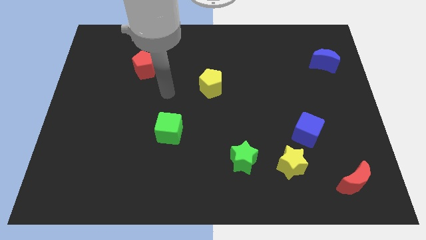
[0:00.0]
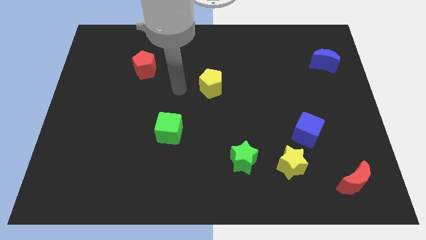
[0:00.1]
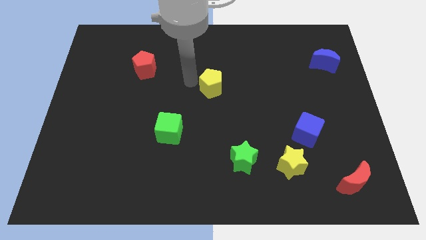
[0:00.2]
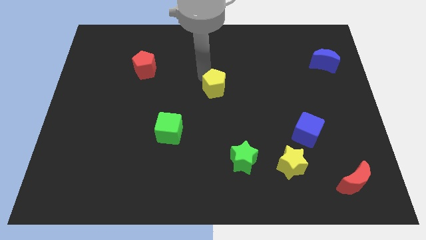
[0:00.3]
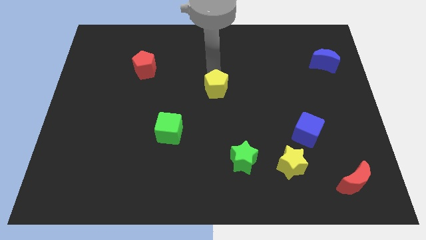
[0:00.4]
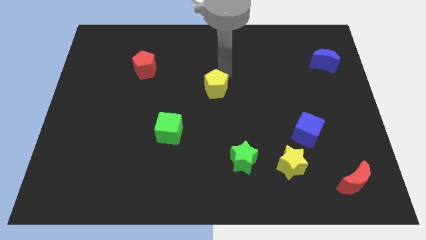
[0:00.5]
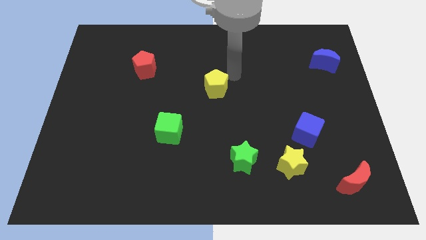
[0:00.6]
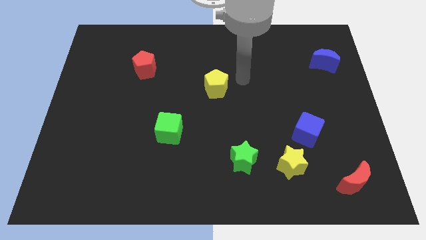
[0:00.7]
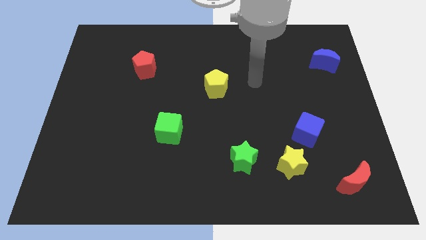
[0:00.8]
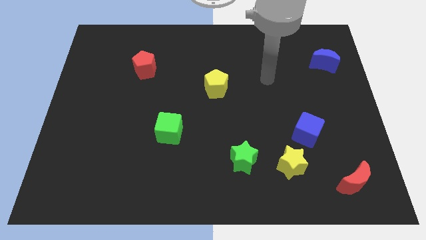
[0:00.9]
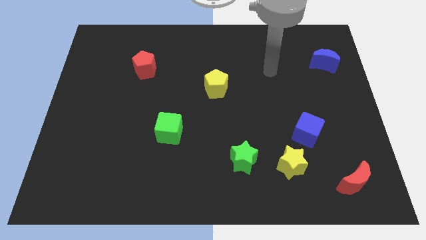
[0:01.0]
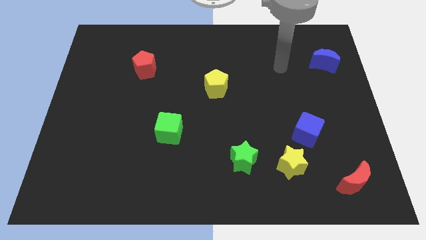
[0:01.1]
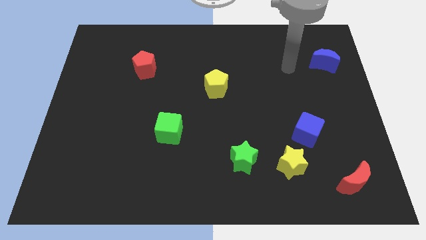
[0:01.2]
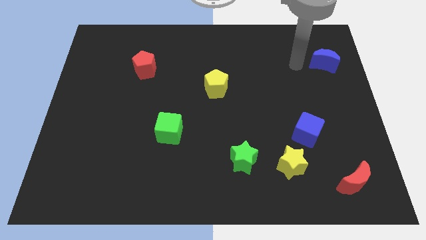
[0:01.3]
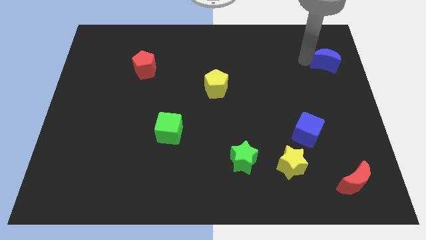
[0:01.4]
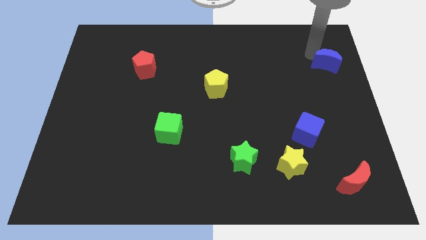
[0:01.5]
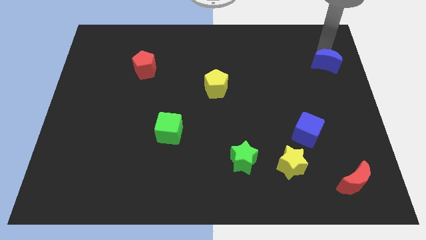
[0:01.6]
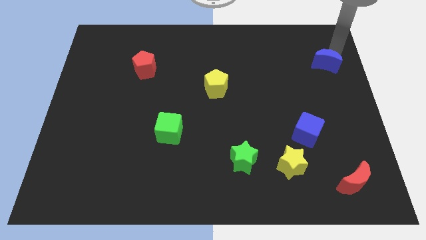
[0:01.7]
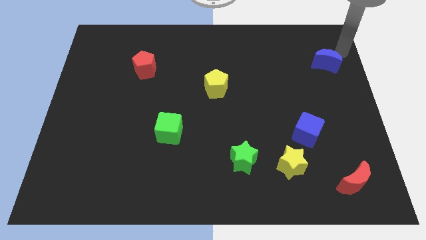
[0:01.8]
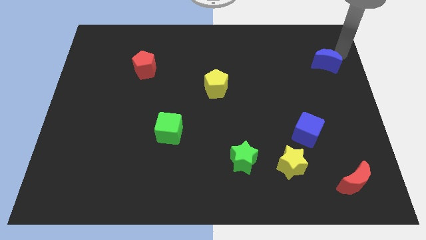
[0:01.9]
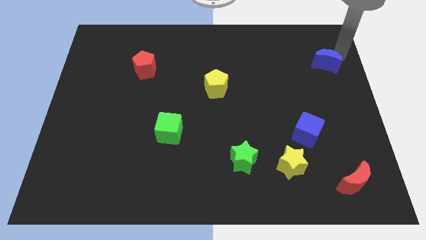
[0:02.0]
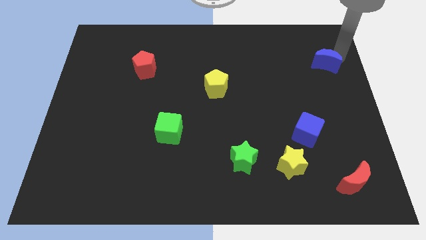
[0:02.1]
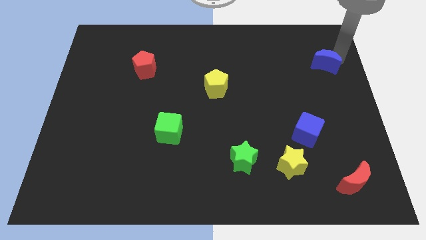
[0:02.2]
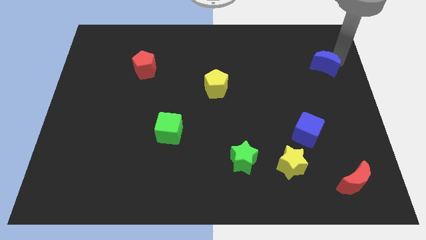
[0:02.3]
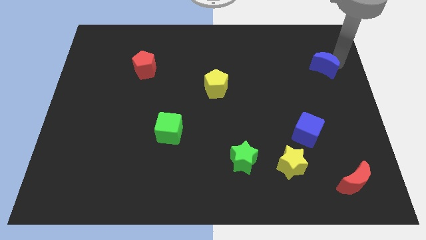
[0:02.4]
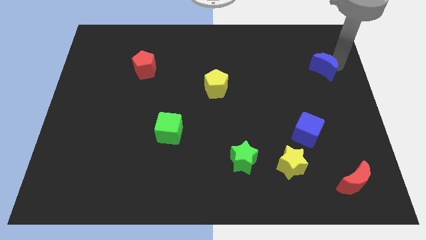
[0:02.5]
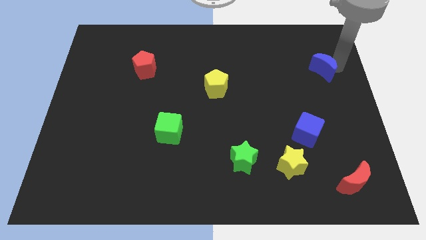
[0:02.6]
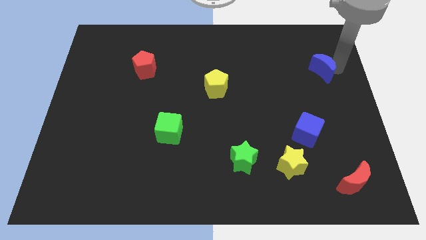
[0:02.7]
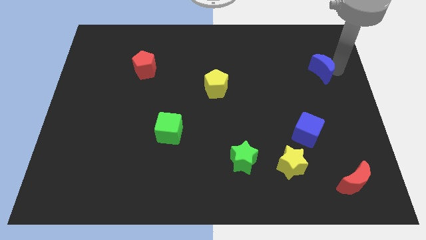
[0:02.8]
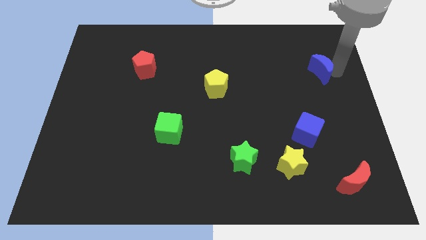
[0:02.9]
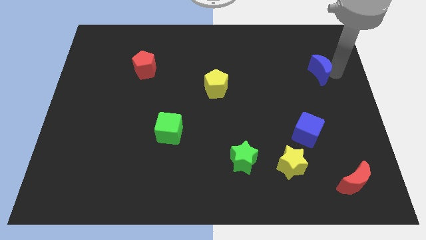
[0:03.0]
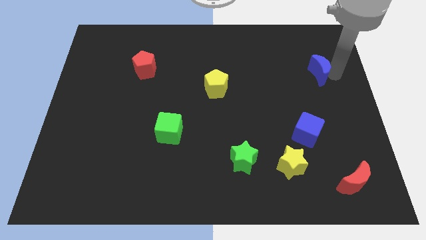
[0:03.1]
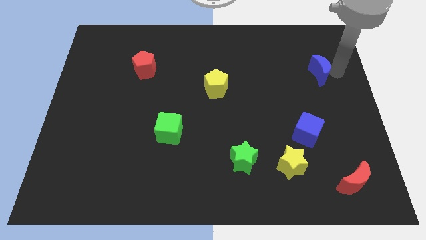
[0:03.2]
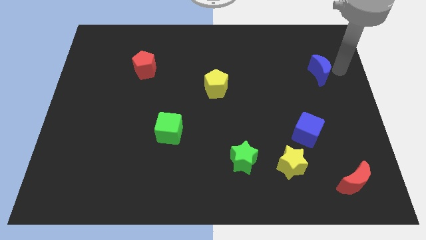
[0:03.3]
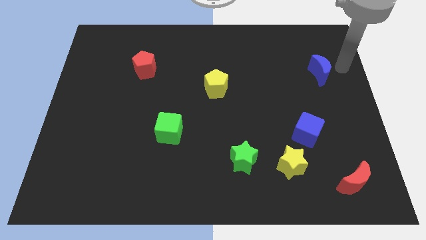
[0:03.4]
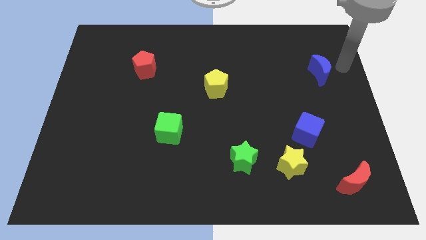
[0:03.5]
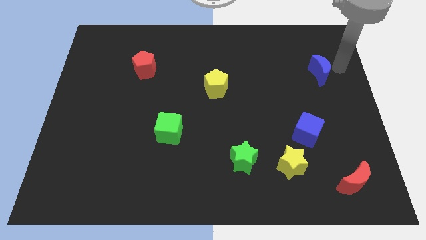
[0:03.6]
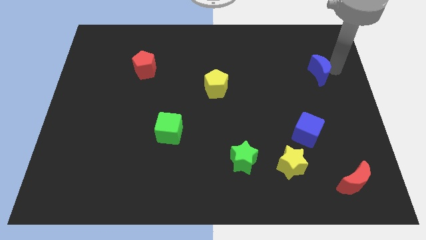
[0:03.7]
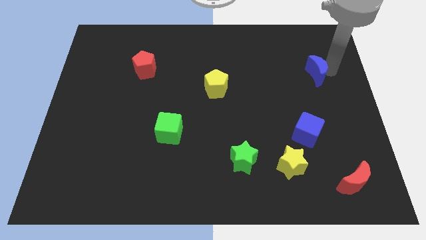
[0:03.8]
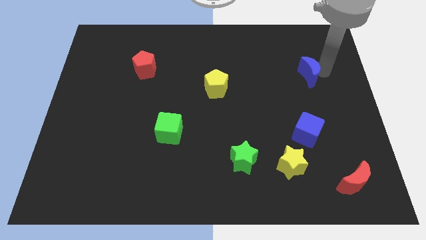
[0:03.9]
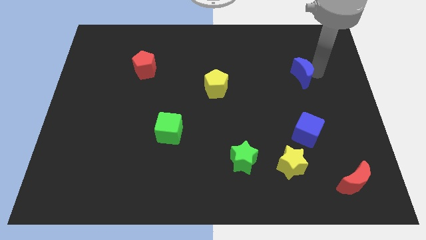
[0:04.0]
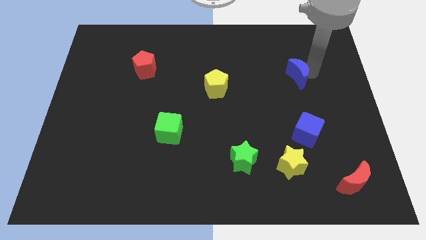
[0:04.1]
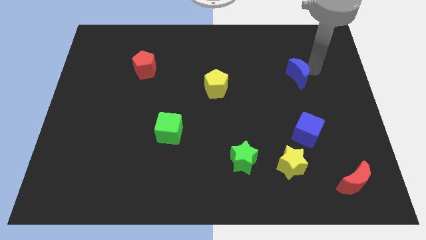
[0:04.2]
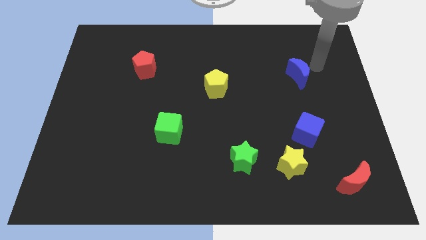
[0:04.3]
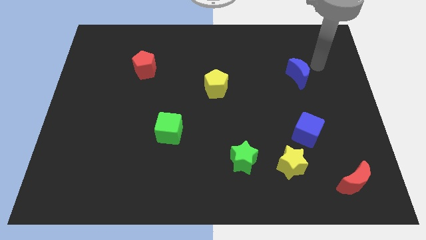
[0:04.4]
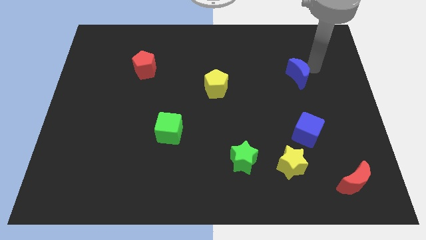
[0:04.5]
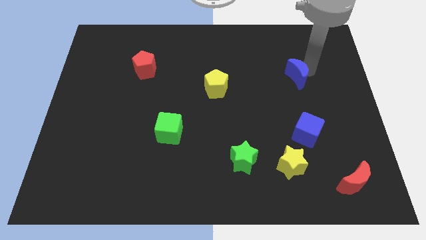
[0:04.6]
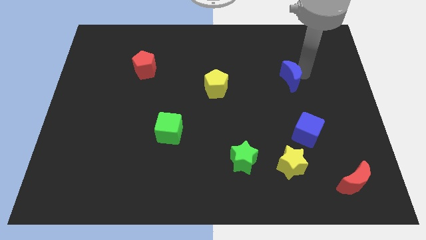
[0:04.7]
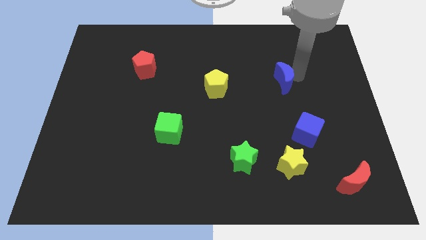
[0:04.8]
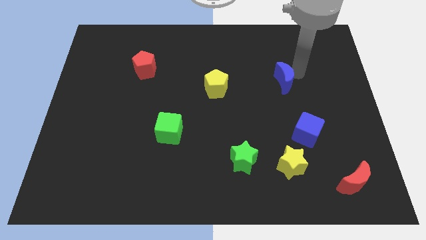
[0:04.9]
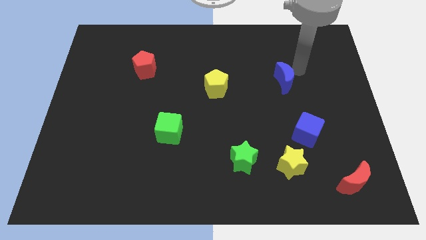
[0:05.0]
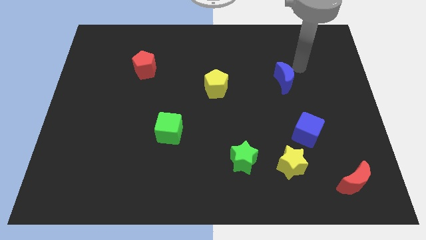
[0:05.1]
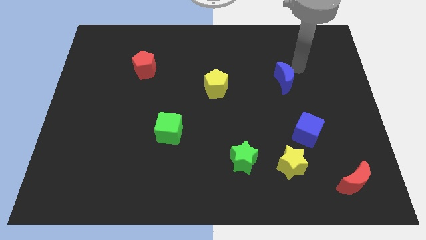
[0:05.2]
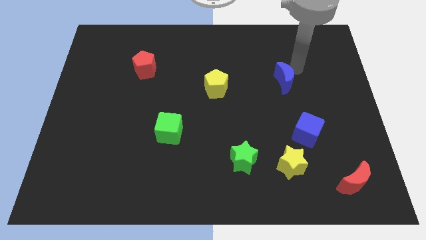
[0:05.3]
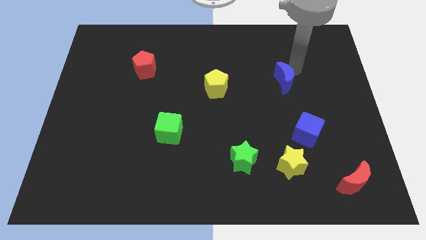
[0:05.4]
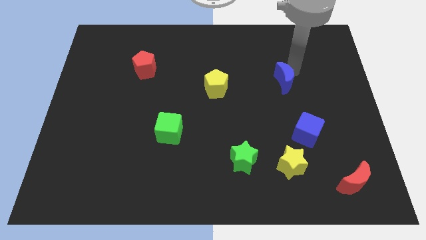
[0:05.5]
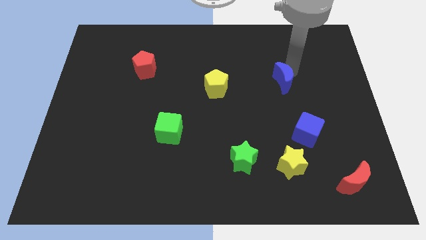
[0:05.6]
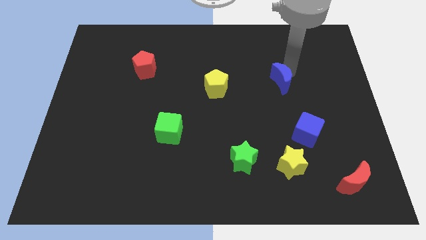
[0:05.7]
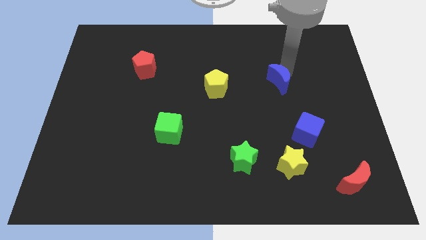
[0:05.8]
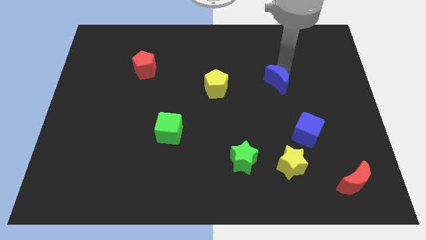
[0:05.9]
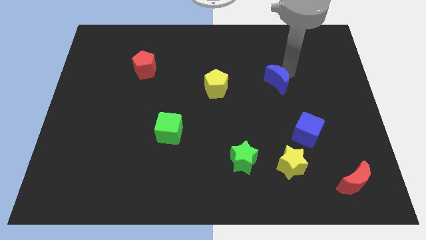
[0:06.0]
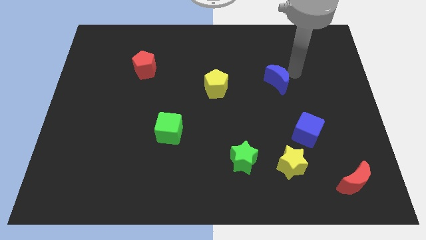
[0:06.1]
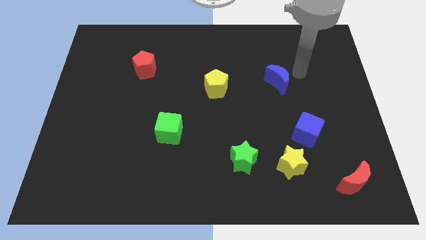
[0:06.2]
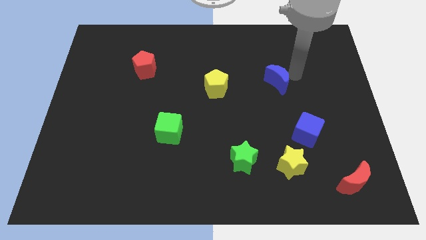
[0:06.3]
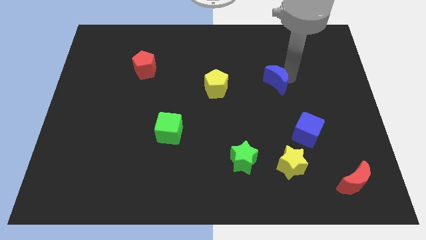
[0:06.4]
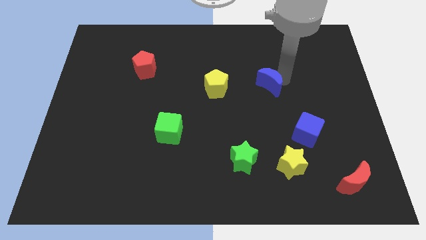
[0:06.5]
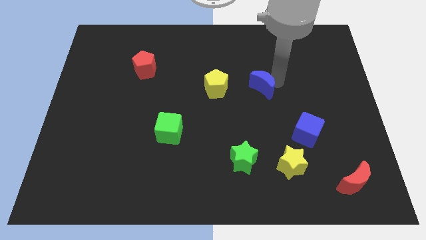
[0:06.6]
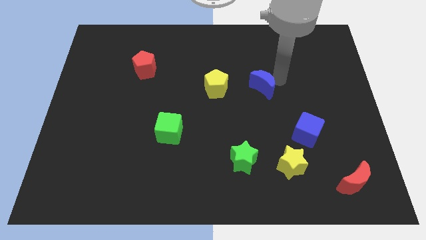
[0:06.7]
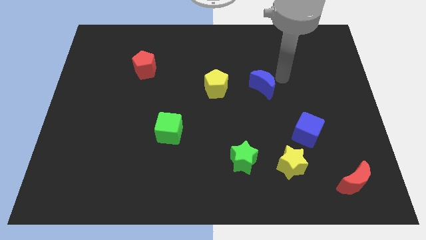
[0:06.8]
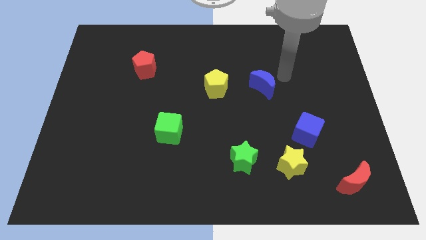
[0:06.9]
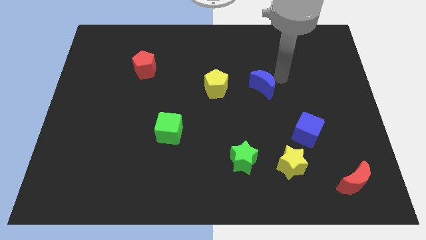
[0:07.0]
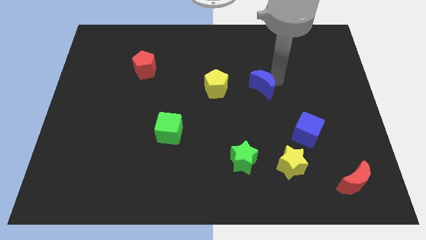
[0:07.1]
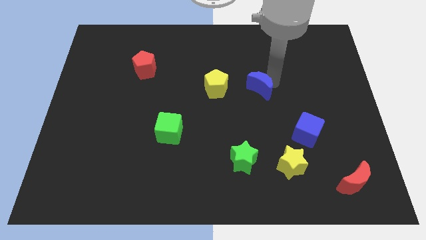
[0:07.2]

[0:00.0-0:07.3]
slide the blue moon to the center
